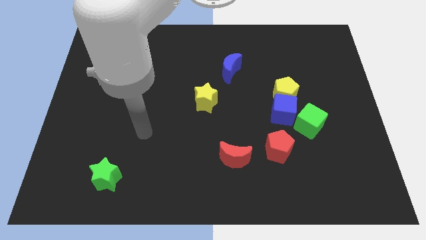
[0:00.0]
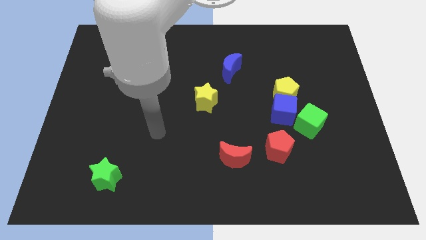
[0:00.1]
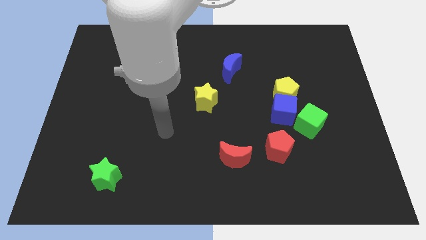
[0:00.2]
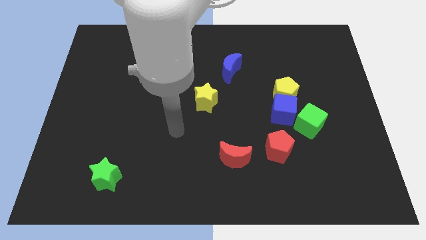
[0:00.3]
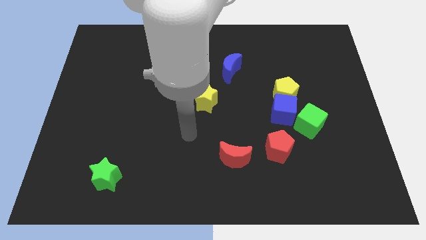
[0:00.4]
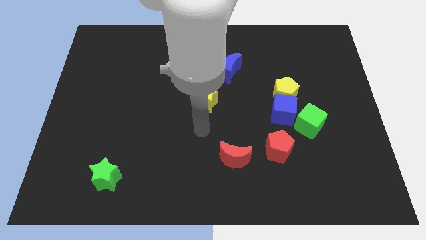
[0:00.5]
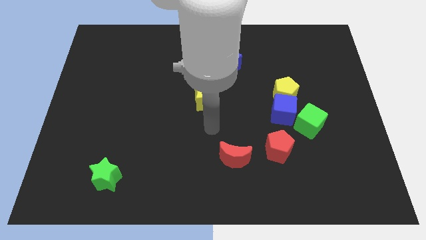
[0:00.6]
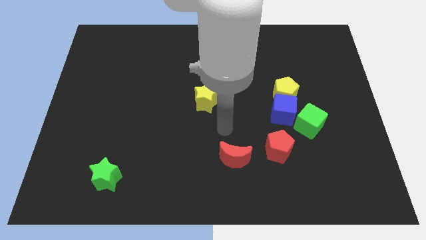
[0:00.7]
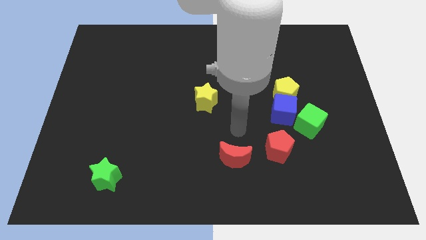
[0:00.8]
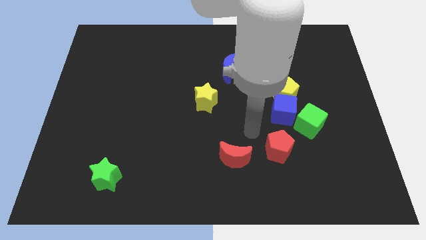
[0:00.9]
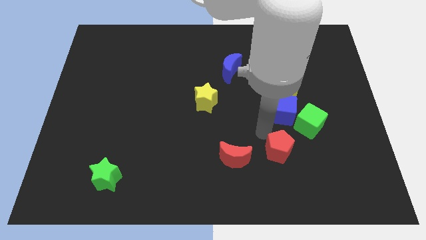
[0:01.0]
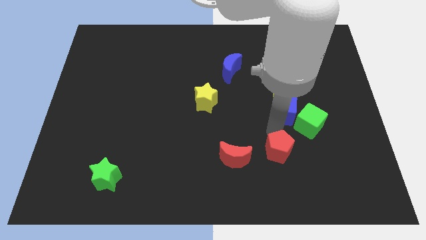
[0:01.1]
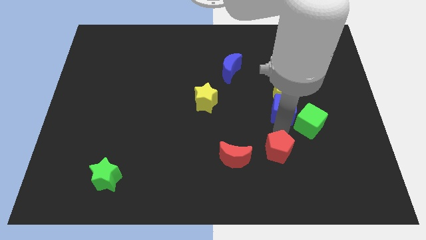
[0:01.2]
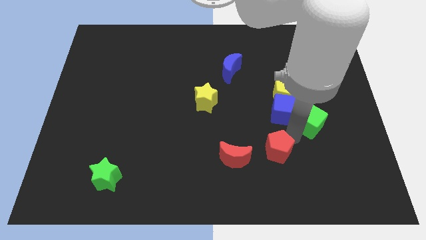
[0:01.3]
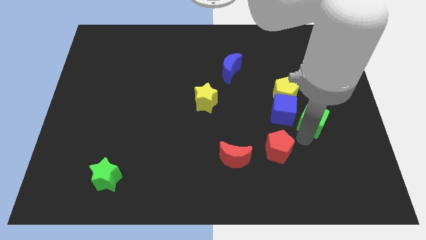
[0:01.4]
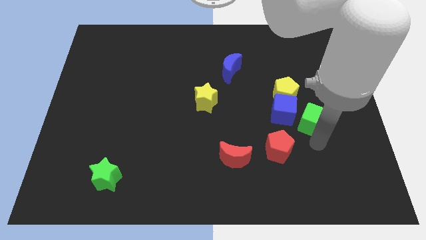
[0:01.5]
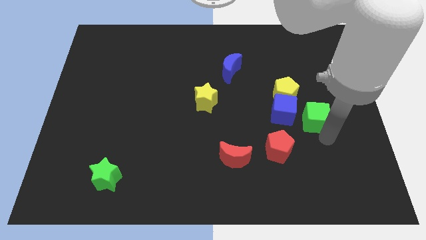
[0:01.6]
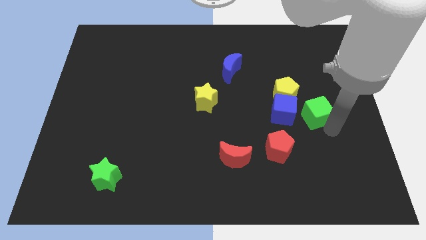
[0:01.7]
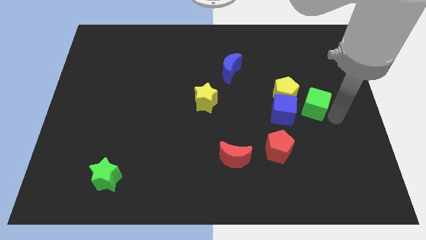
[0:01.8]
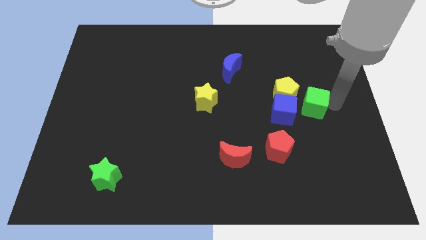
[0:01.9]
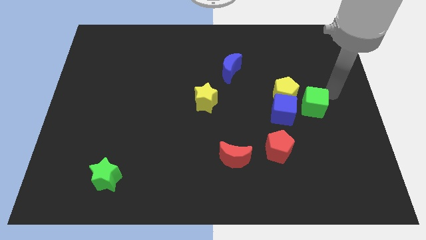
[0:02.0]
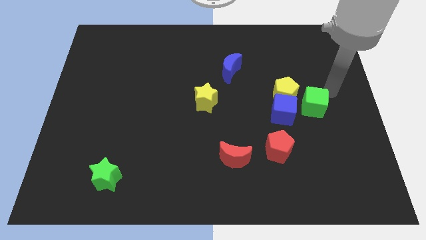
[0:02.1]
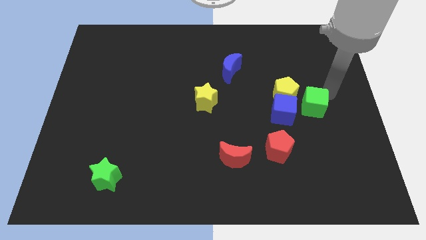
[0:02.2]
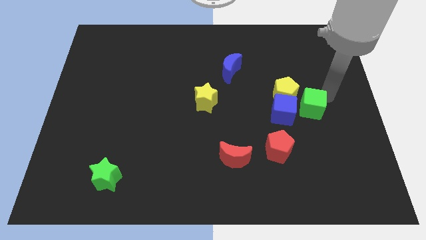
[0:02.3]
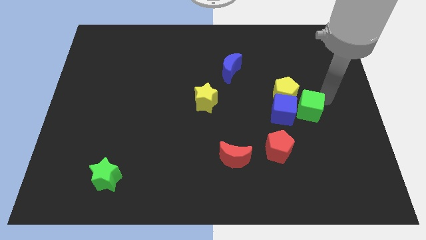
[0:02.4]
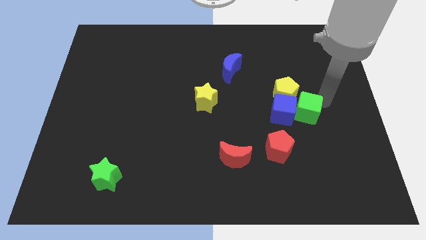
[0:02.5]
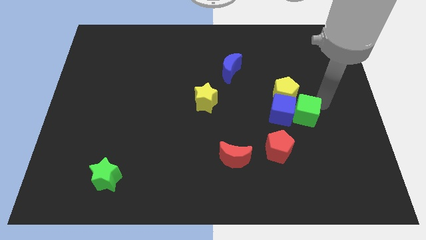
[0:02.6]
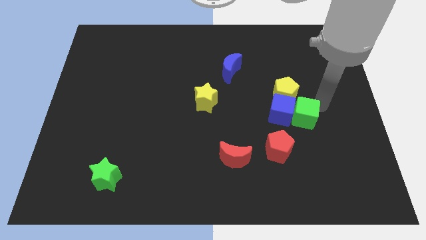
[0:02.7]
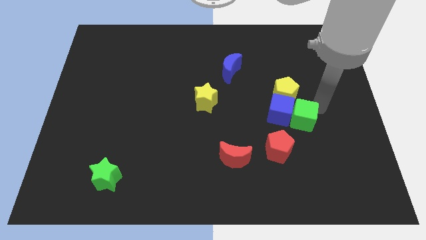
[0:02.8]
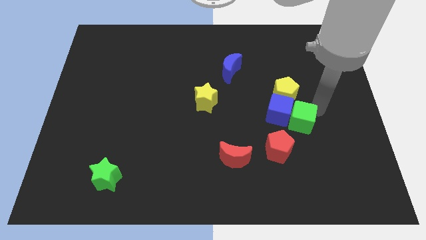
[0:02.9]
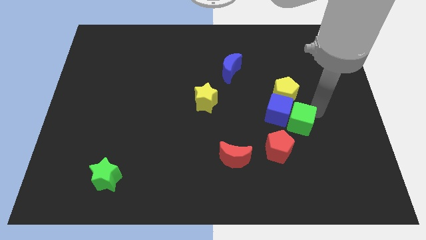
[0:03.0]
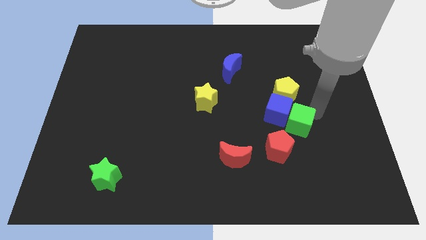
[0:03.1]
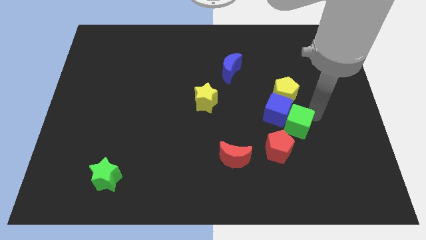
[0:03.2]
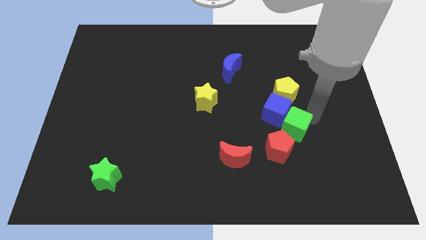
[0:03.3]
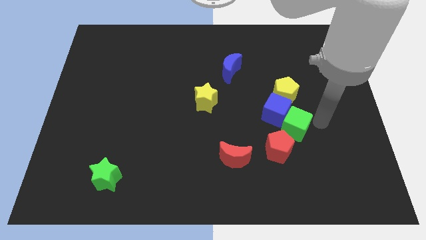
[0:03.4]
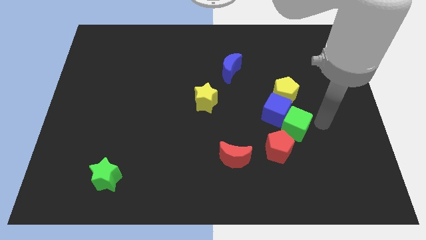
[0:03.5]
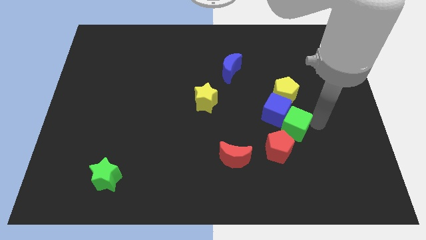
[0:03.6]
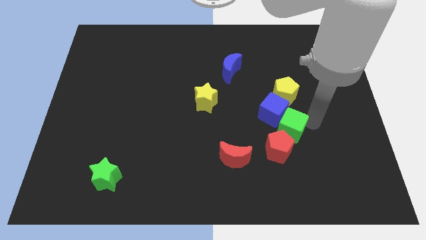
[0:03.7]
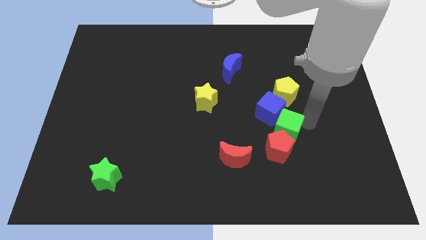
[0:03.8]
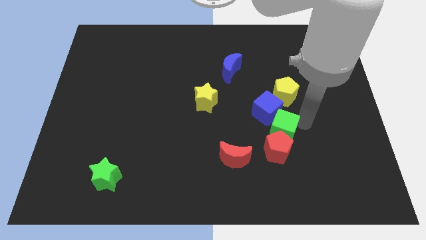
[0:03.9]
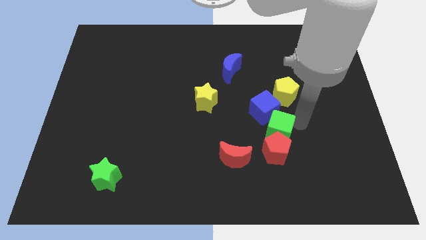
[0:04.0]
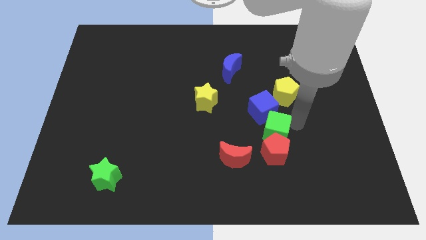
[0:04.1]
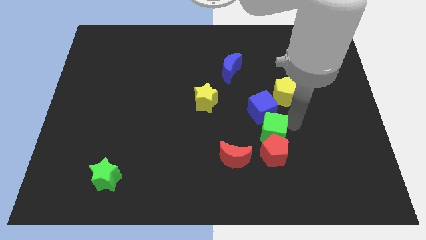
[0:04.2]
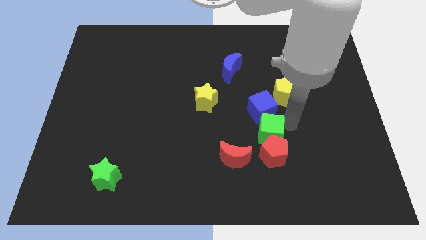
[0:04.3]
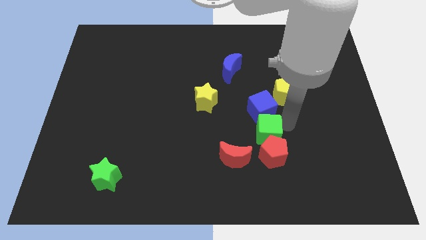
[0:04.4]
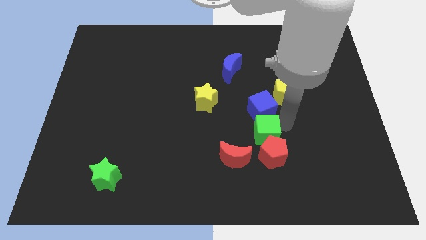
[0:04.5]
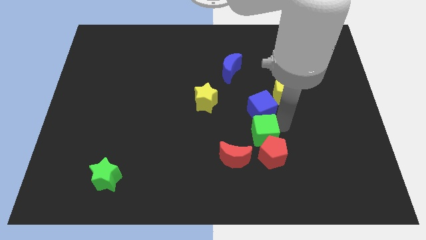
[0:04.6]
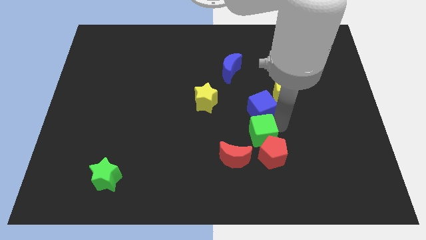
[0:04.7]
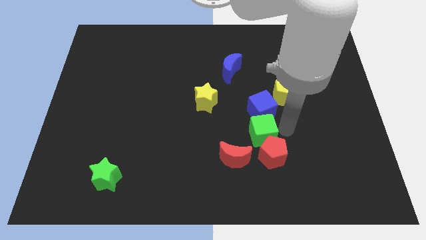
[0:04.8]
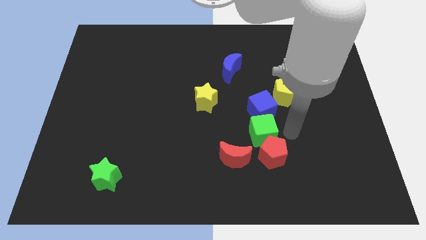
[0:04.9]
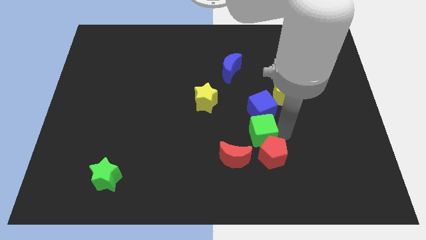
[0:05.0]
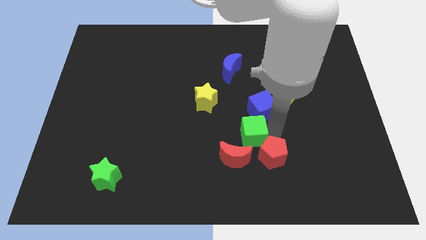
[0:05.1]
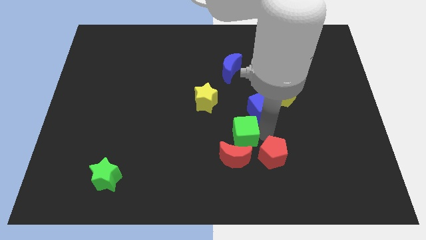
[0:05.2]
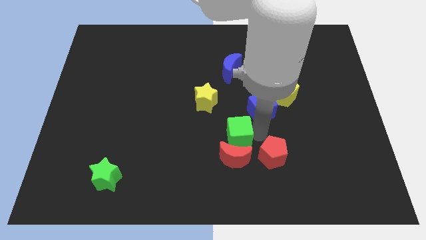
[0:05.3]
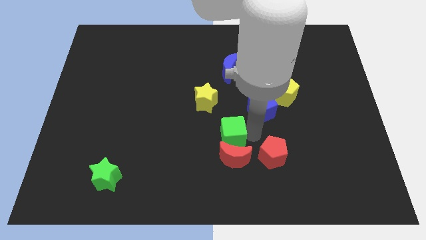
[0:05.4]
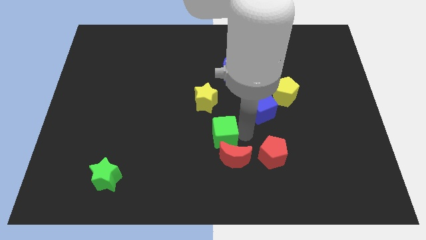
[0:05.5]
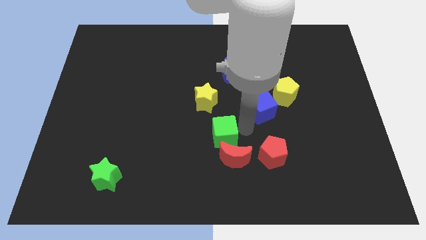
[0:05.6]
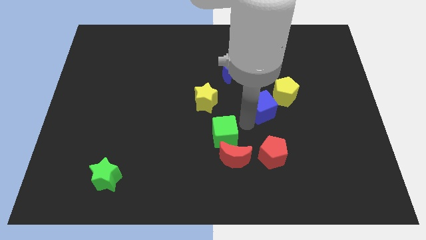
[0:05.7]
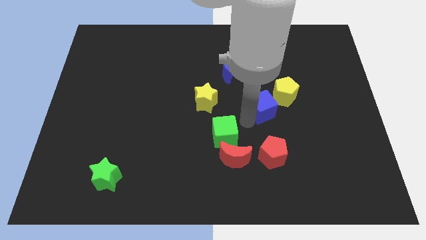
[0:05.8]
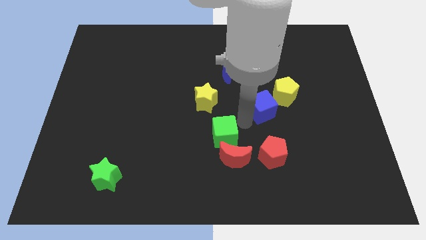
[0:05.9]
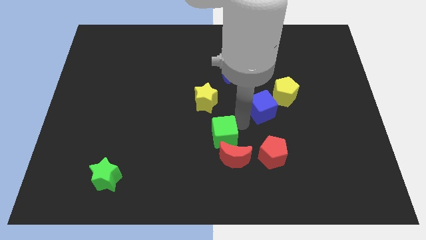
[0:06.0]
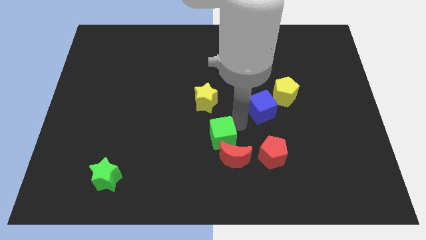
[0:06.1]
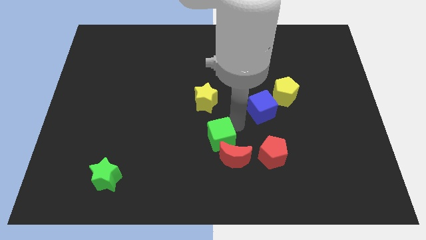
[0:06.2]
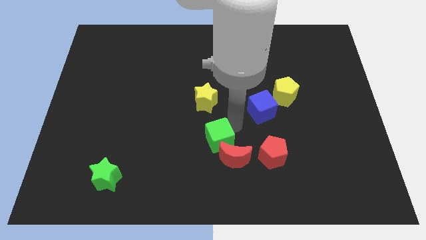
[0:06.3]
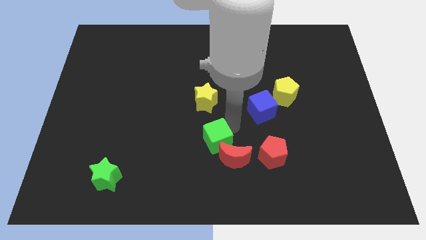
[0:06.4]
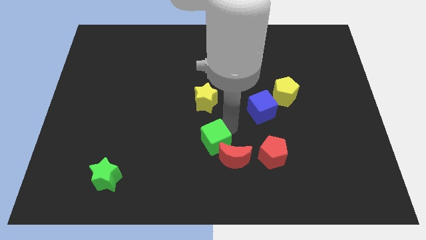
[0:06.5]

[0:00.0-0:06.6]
put the green cube left of the red moon

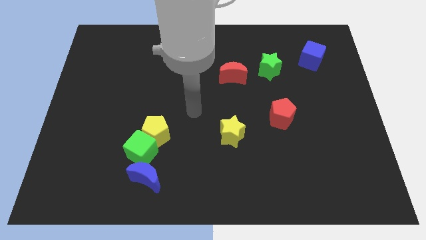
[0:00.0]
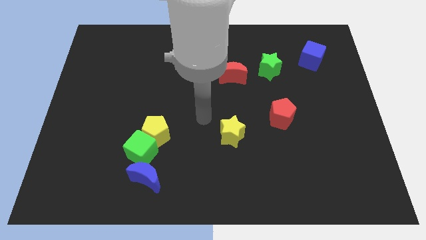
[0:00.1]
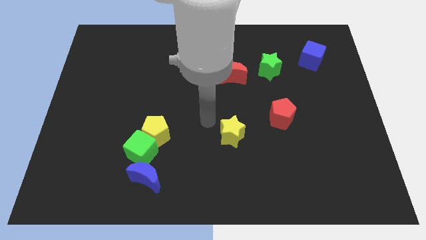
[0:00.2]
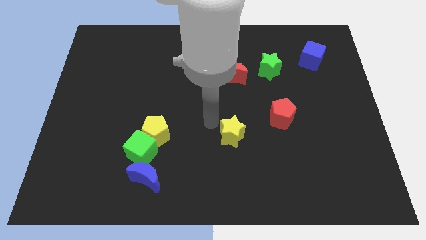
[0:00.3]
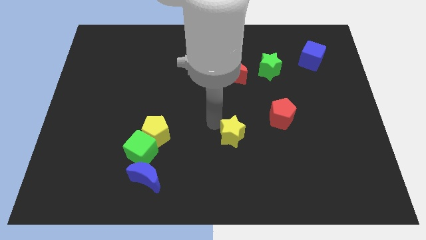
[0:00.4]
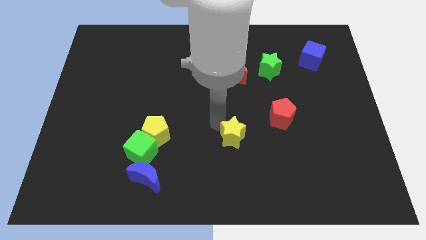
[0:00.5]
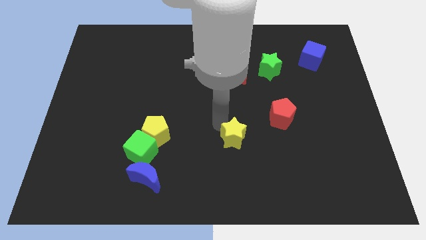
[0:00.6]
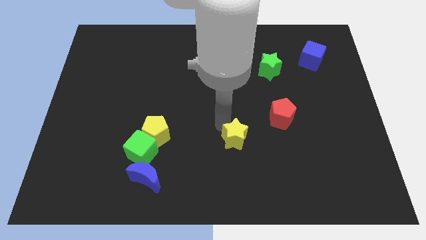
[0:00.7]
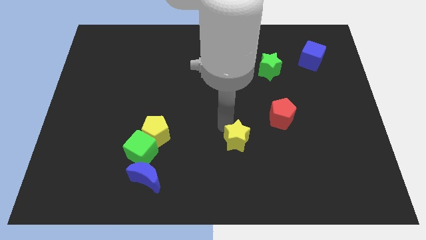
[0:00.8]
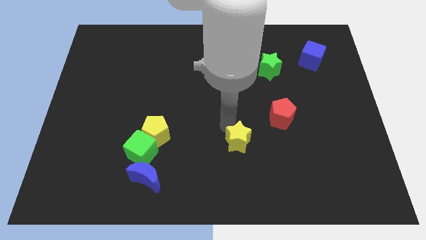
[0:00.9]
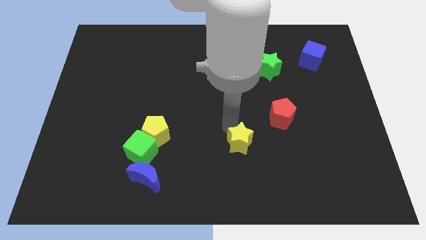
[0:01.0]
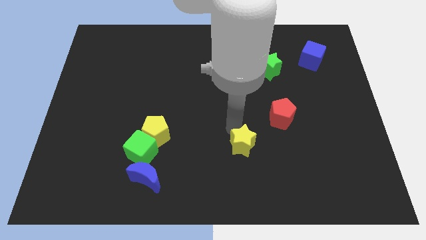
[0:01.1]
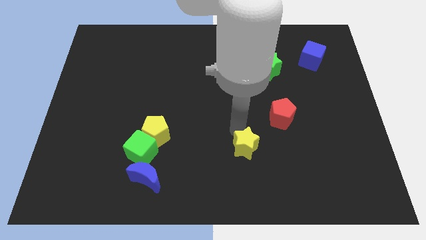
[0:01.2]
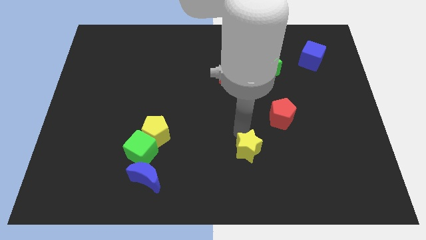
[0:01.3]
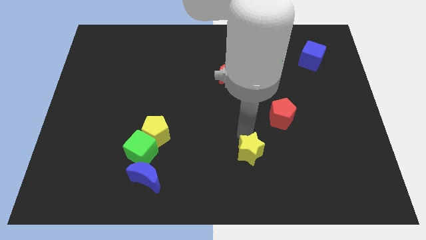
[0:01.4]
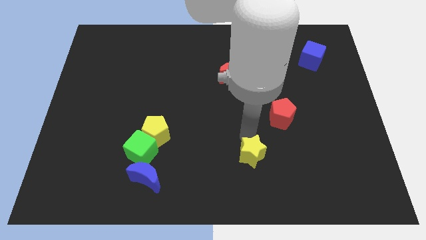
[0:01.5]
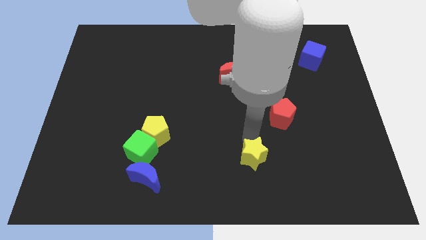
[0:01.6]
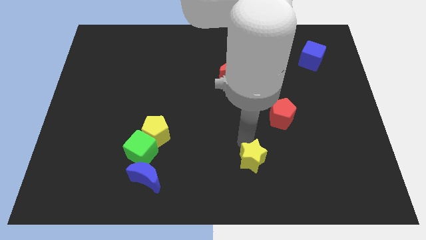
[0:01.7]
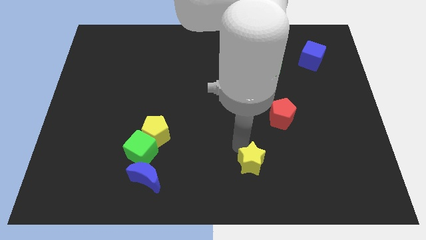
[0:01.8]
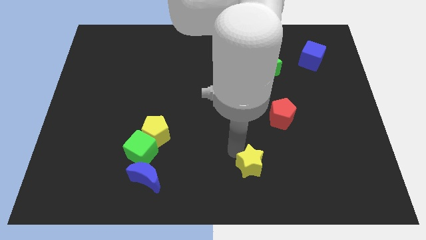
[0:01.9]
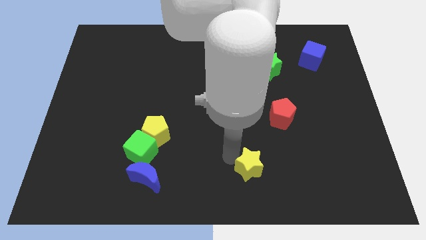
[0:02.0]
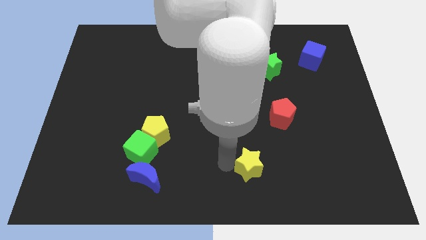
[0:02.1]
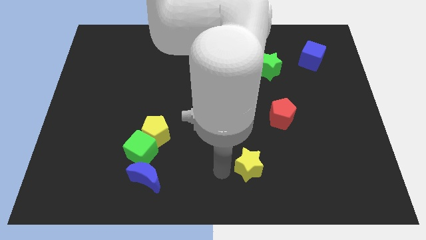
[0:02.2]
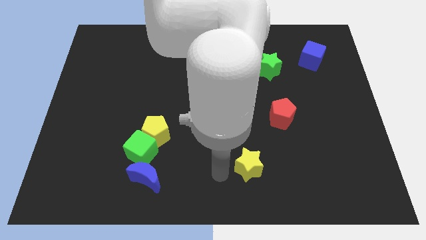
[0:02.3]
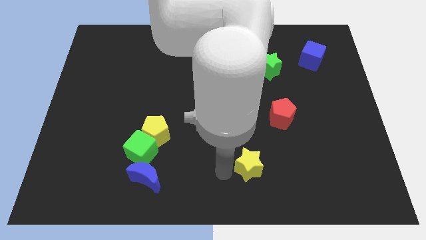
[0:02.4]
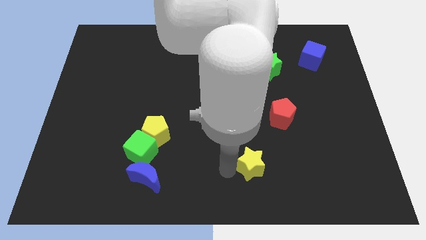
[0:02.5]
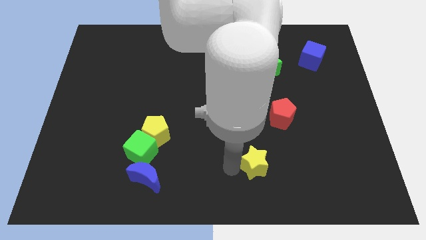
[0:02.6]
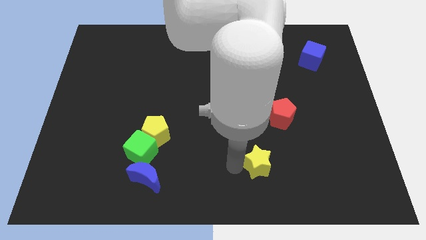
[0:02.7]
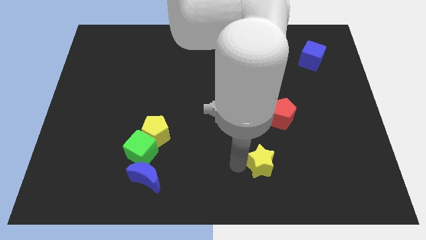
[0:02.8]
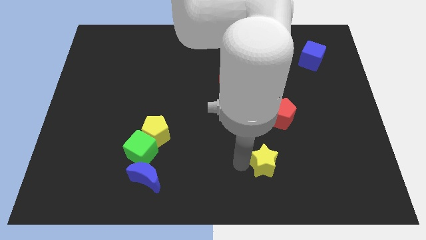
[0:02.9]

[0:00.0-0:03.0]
push the yellow star to the bottom side of the red pentagon
